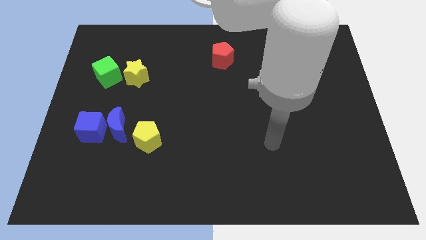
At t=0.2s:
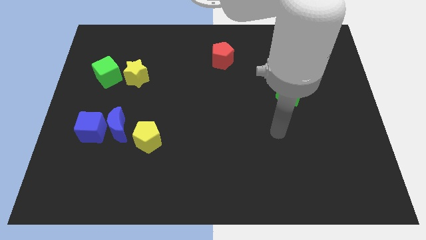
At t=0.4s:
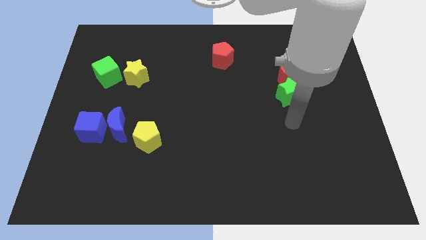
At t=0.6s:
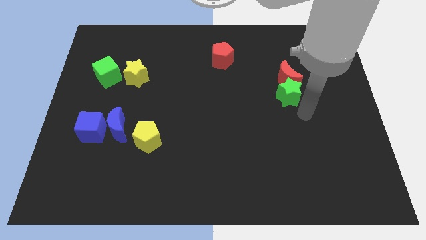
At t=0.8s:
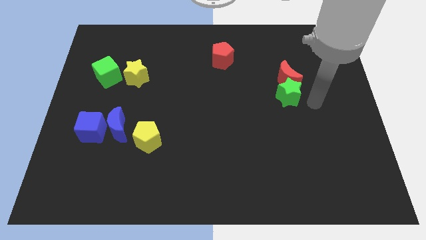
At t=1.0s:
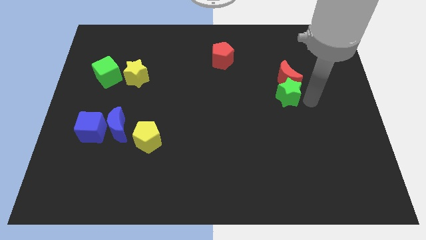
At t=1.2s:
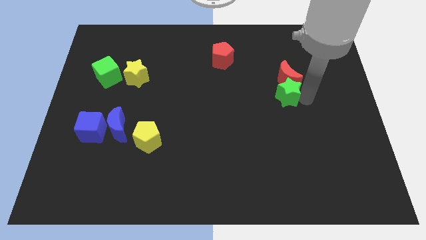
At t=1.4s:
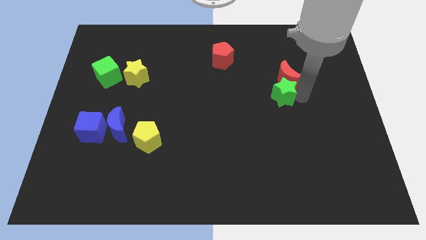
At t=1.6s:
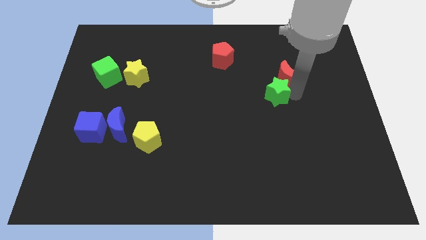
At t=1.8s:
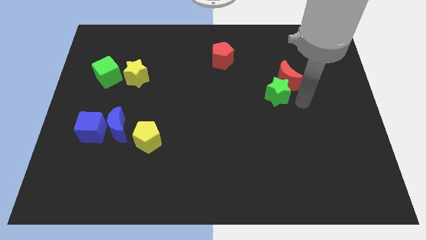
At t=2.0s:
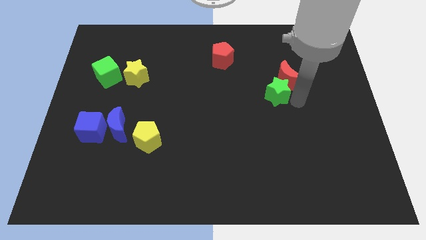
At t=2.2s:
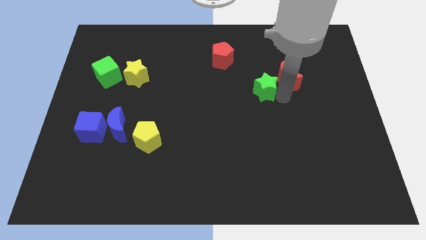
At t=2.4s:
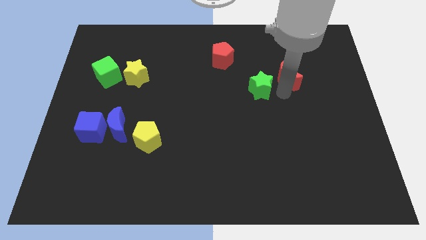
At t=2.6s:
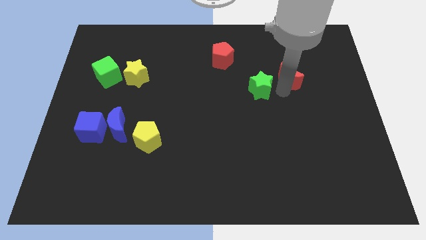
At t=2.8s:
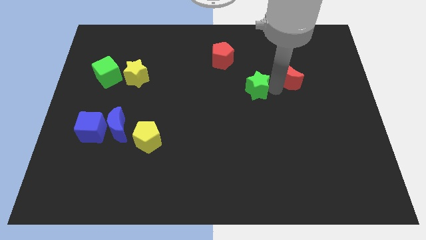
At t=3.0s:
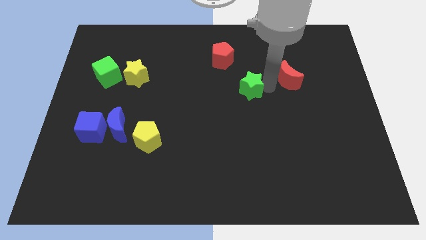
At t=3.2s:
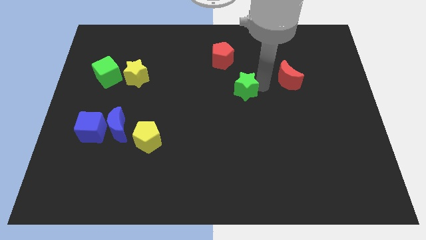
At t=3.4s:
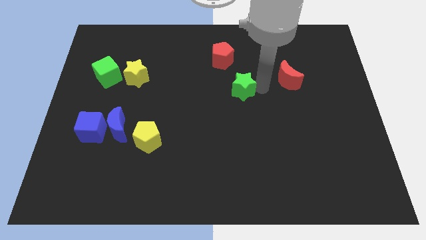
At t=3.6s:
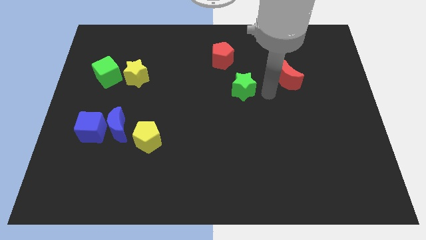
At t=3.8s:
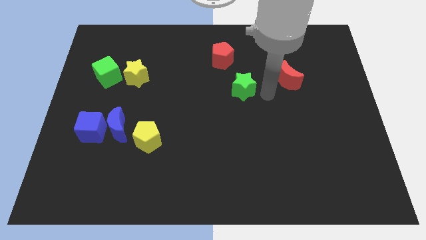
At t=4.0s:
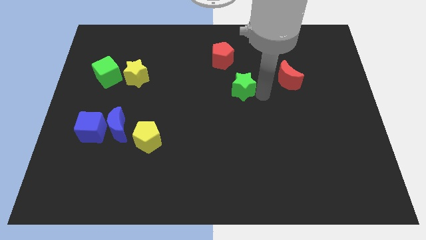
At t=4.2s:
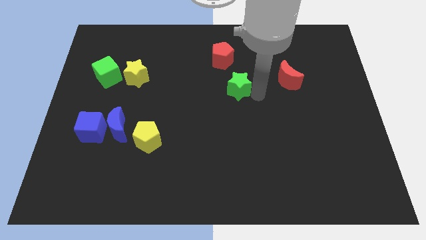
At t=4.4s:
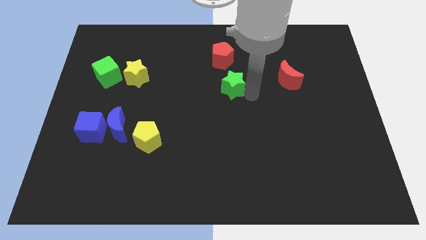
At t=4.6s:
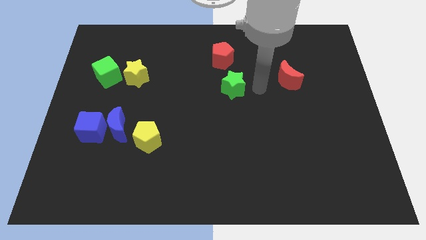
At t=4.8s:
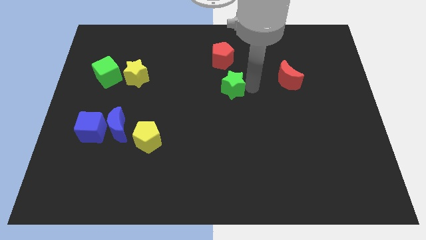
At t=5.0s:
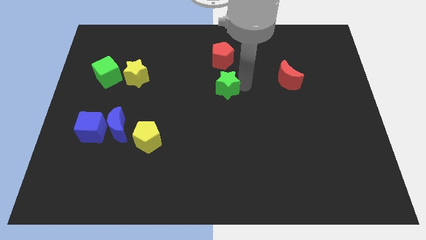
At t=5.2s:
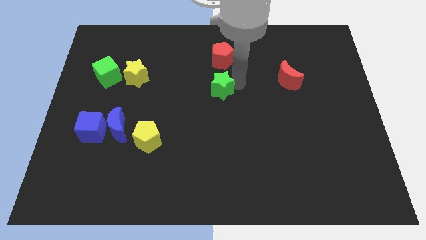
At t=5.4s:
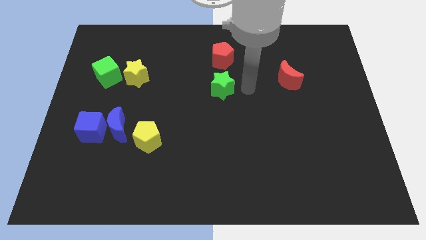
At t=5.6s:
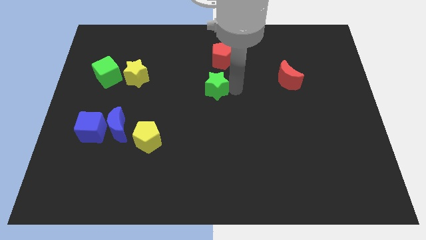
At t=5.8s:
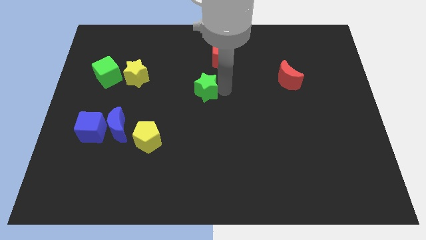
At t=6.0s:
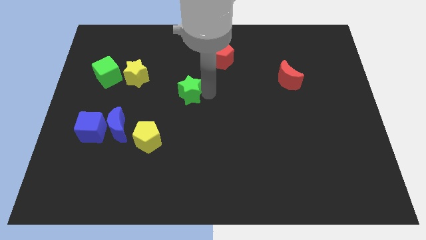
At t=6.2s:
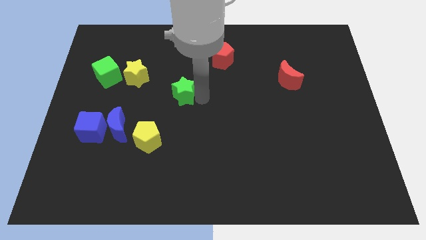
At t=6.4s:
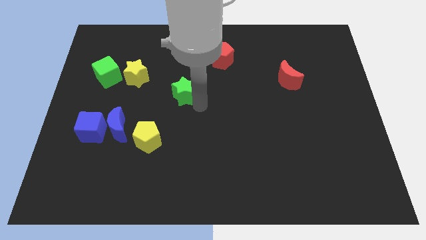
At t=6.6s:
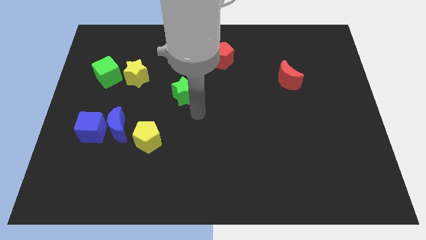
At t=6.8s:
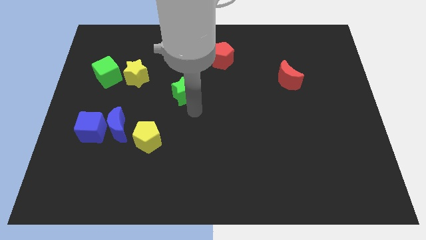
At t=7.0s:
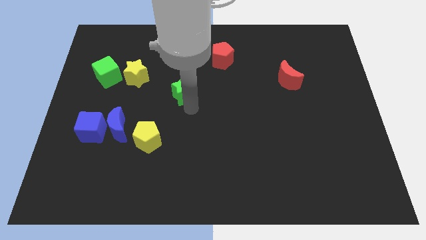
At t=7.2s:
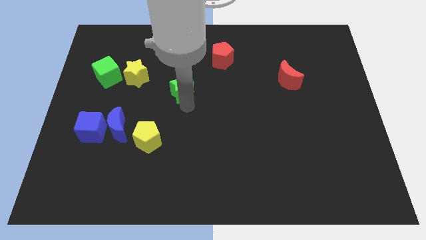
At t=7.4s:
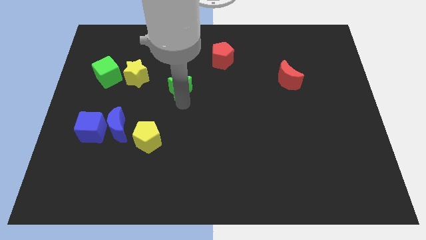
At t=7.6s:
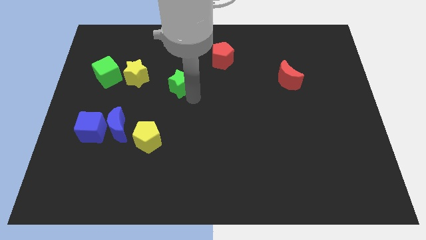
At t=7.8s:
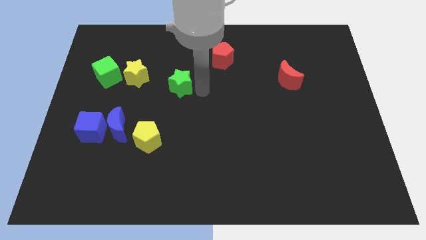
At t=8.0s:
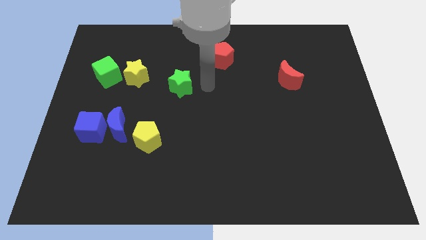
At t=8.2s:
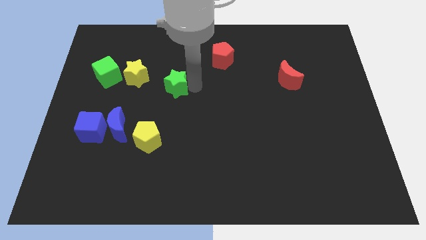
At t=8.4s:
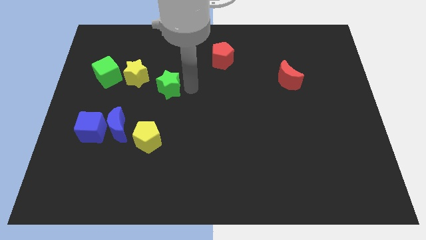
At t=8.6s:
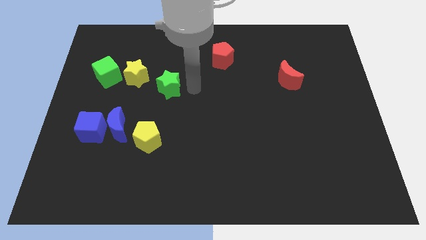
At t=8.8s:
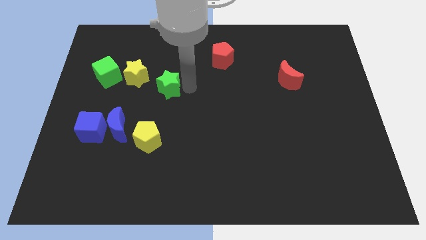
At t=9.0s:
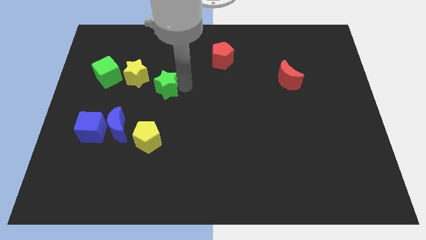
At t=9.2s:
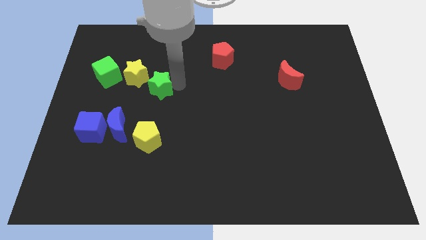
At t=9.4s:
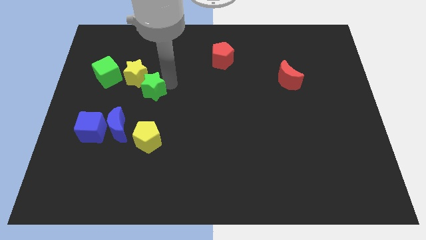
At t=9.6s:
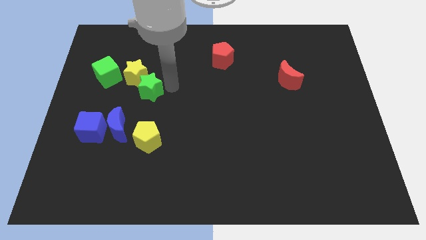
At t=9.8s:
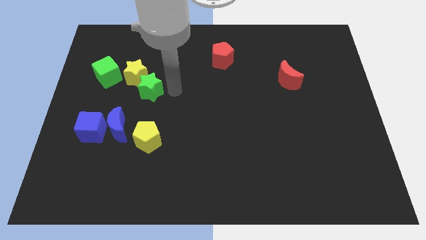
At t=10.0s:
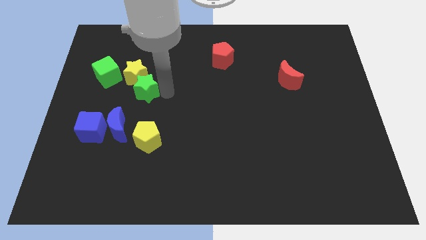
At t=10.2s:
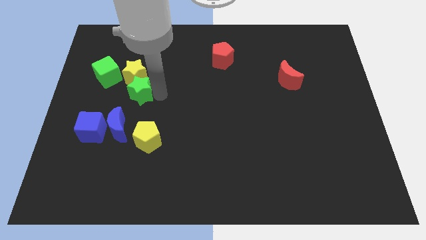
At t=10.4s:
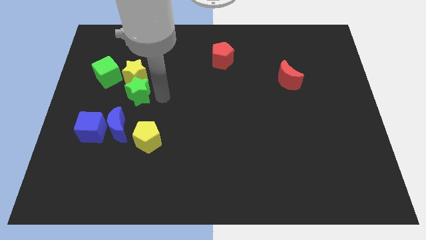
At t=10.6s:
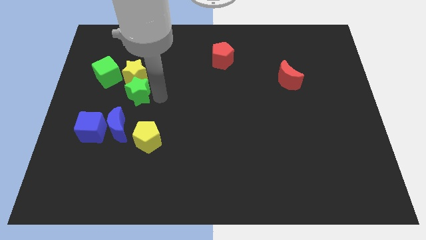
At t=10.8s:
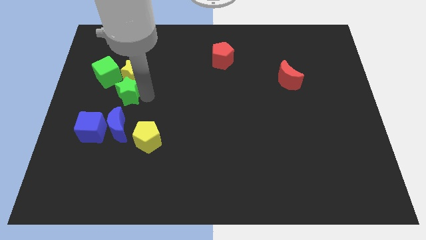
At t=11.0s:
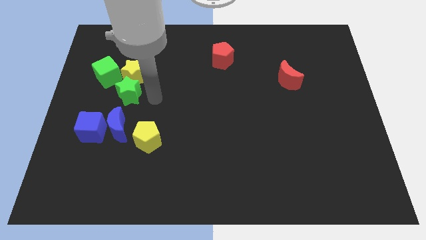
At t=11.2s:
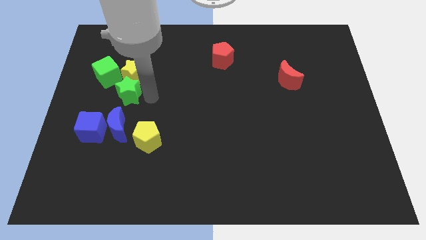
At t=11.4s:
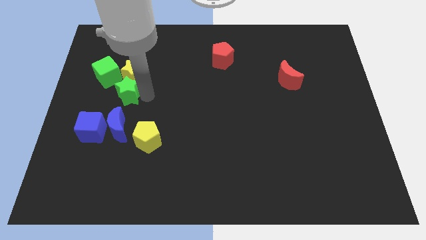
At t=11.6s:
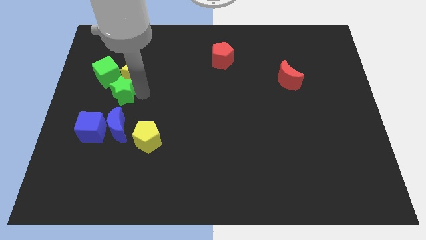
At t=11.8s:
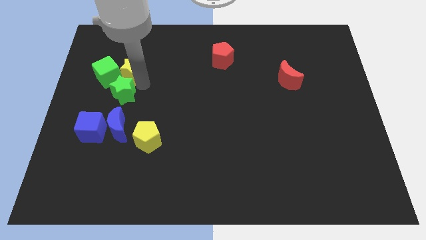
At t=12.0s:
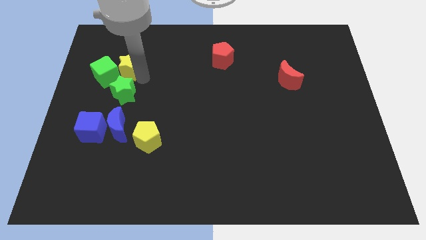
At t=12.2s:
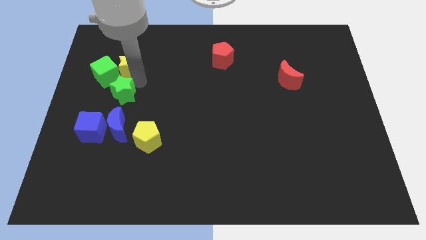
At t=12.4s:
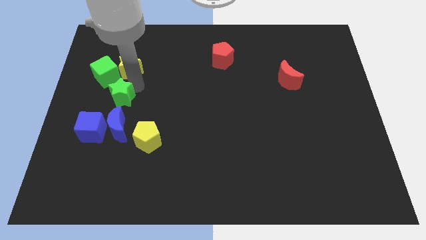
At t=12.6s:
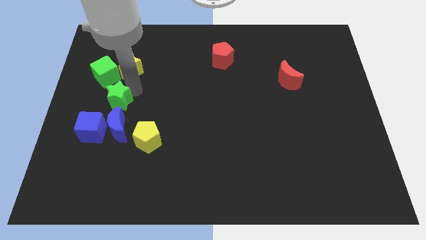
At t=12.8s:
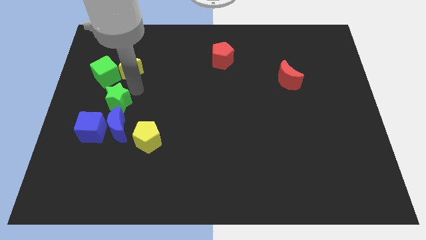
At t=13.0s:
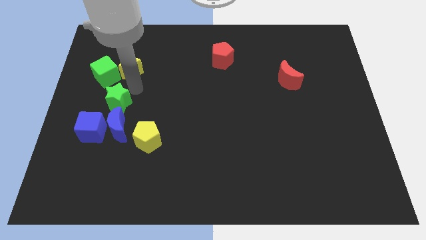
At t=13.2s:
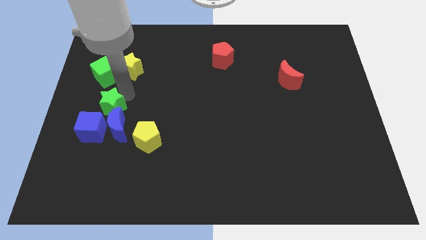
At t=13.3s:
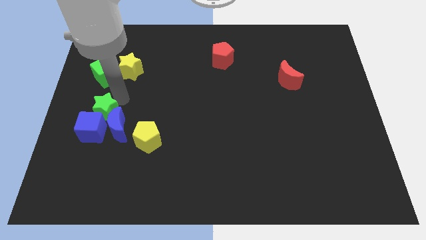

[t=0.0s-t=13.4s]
move the green star to the blue cube
